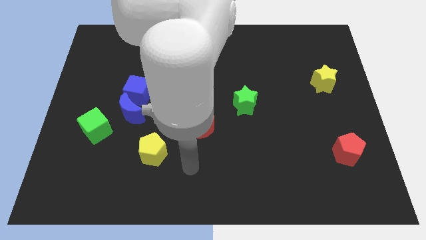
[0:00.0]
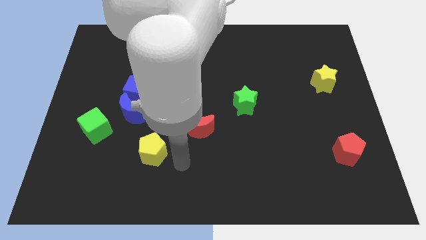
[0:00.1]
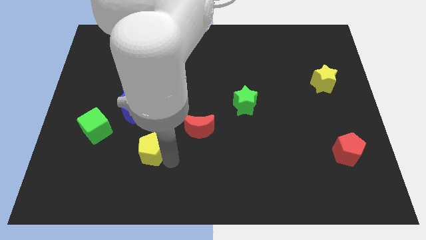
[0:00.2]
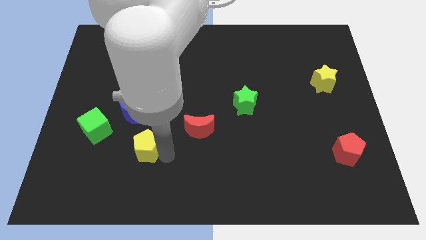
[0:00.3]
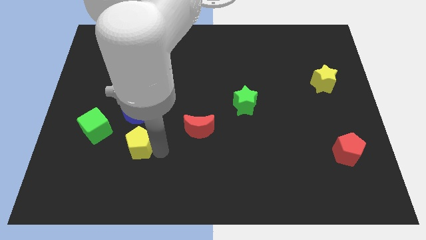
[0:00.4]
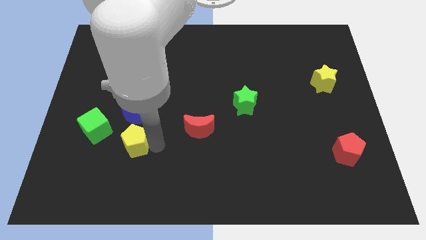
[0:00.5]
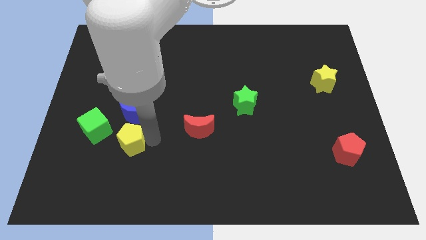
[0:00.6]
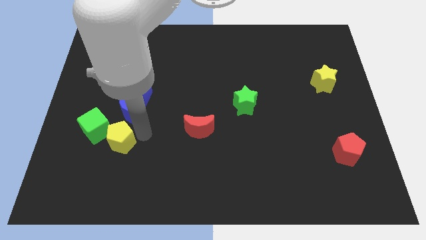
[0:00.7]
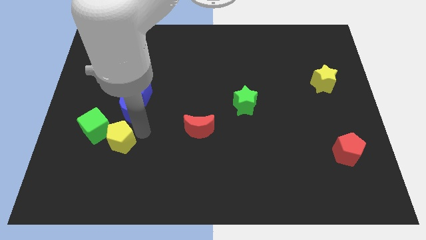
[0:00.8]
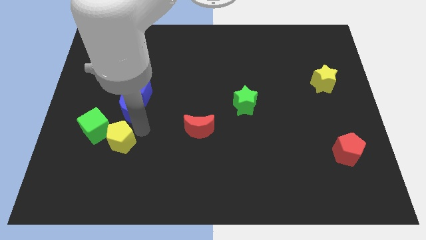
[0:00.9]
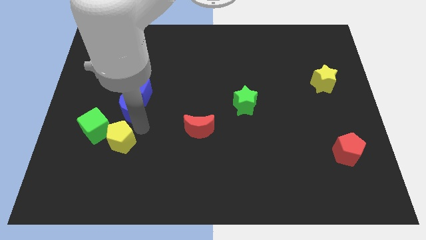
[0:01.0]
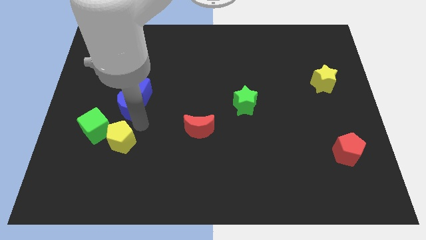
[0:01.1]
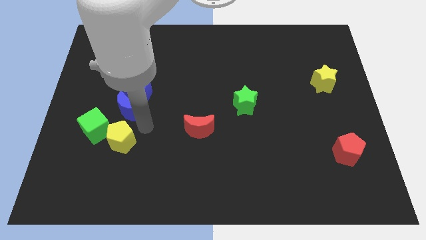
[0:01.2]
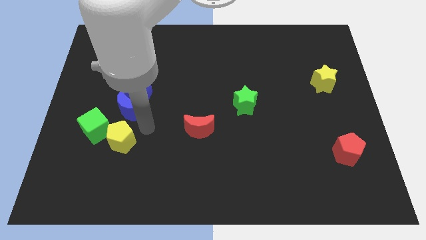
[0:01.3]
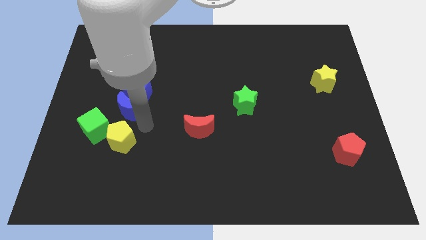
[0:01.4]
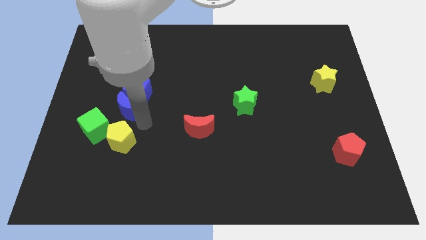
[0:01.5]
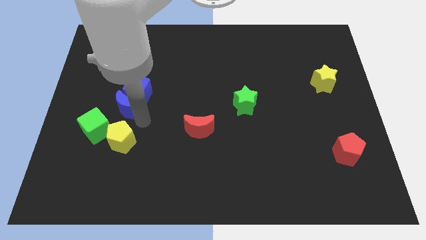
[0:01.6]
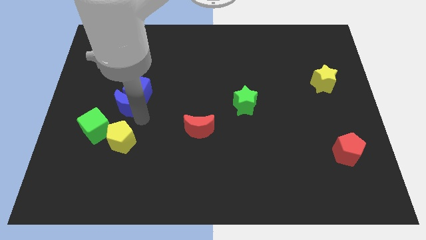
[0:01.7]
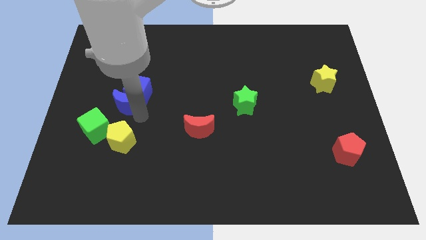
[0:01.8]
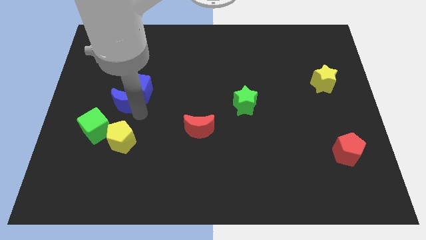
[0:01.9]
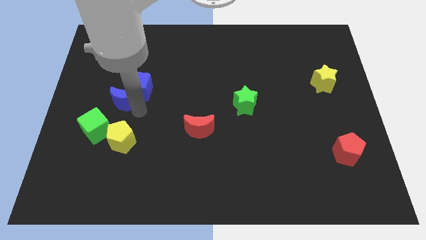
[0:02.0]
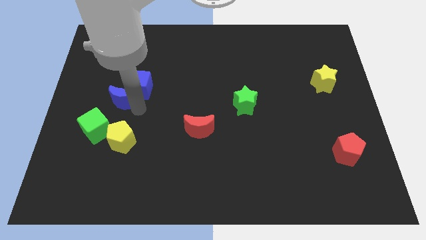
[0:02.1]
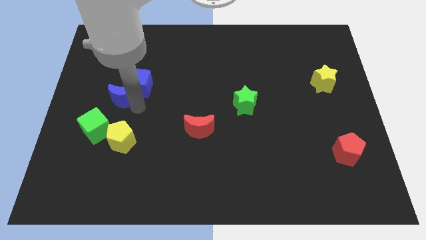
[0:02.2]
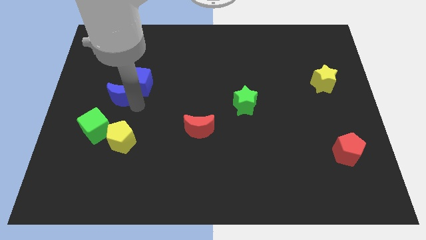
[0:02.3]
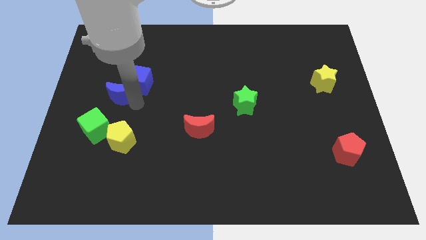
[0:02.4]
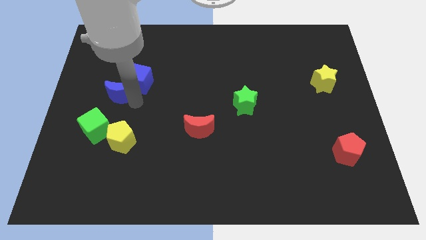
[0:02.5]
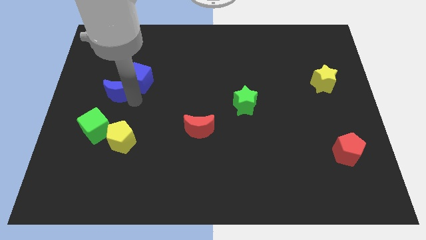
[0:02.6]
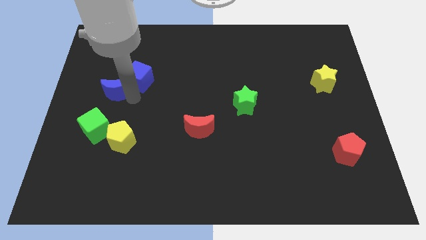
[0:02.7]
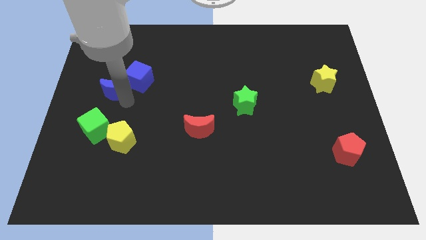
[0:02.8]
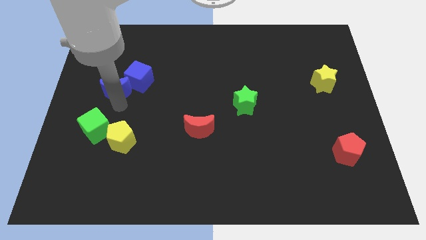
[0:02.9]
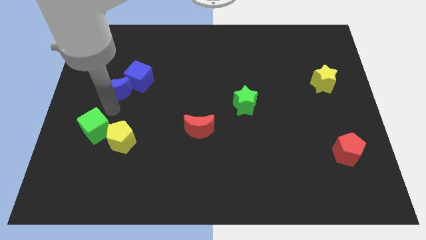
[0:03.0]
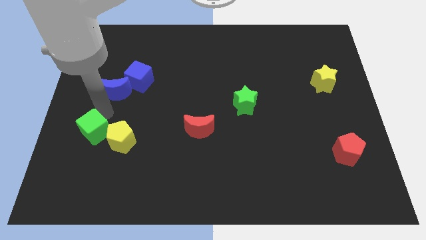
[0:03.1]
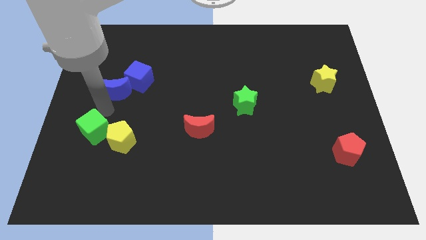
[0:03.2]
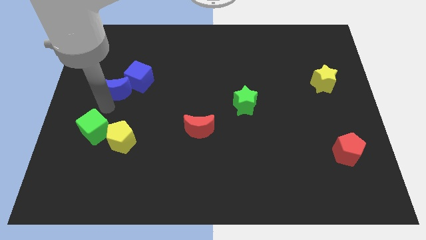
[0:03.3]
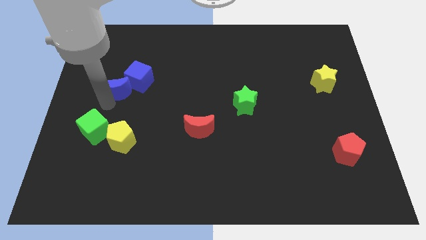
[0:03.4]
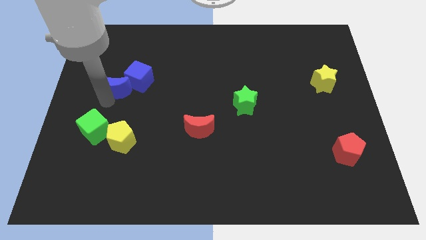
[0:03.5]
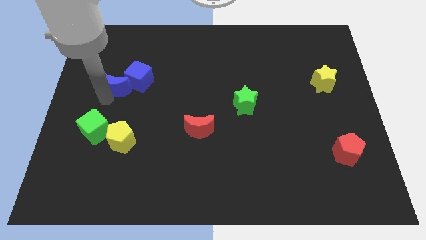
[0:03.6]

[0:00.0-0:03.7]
push the blue moon a bit up

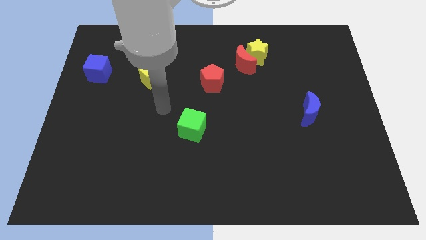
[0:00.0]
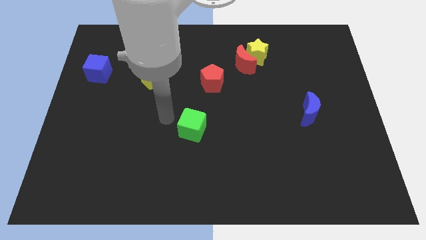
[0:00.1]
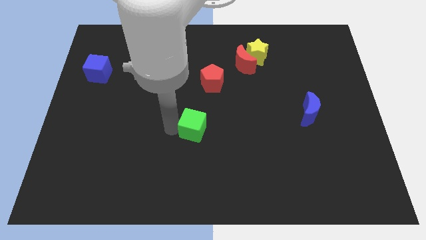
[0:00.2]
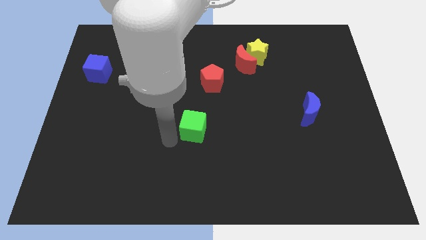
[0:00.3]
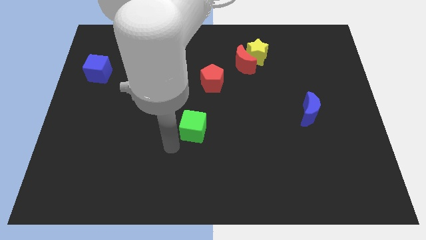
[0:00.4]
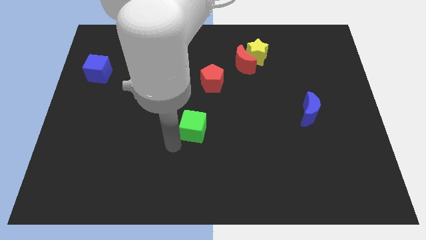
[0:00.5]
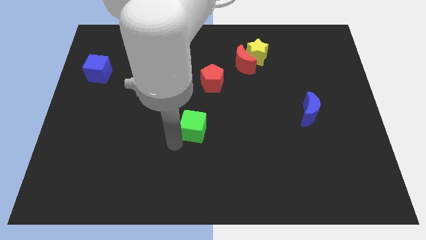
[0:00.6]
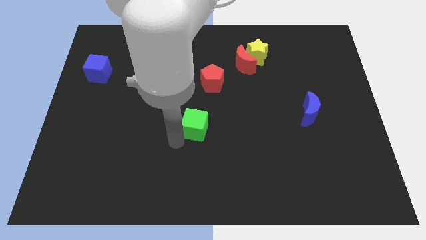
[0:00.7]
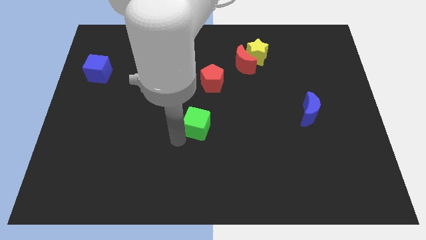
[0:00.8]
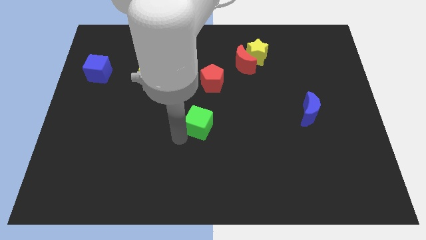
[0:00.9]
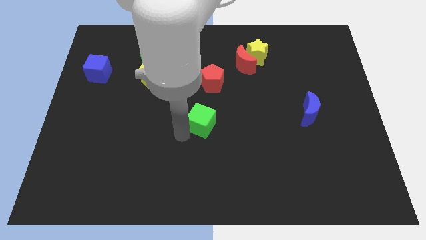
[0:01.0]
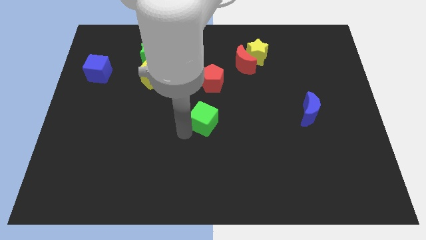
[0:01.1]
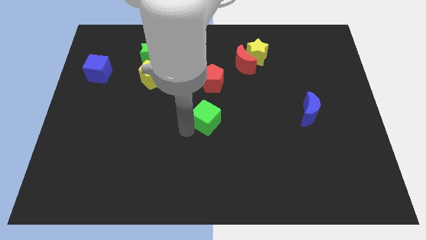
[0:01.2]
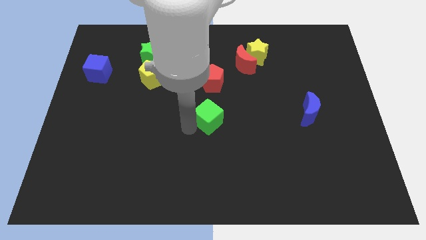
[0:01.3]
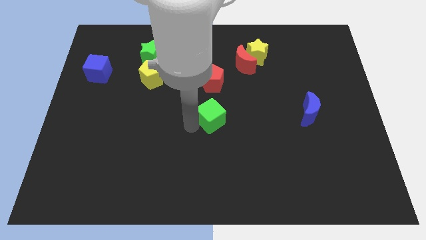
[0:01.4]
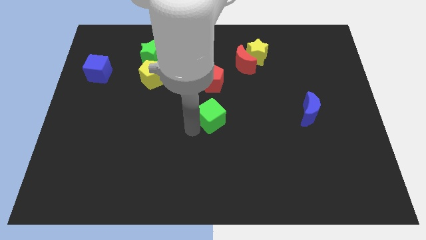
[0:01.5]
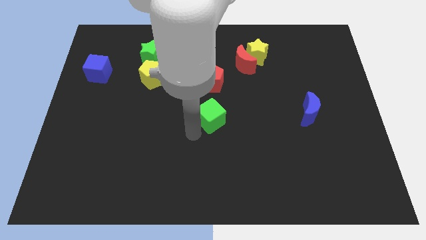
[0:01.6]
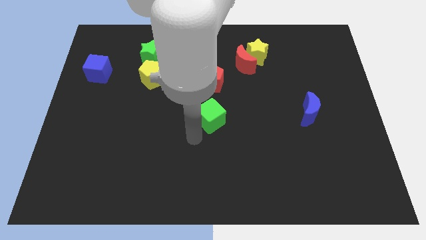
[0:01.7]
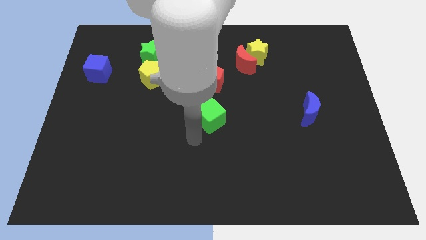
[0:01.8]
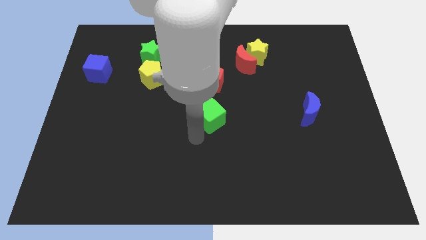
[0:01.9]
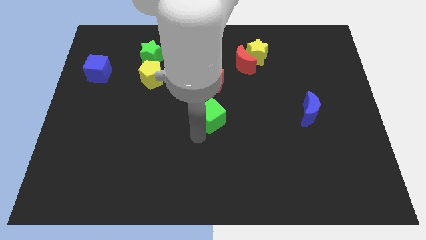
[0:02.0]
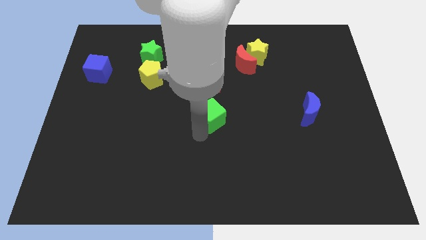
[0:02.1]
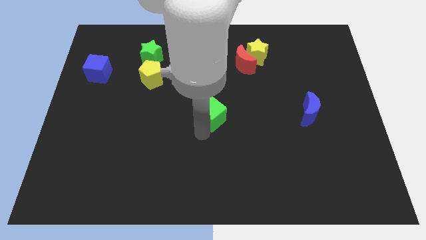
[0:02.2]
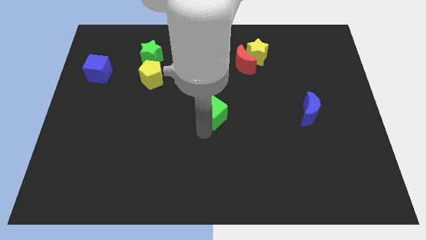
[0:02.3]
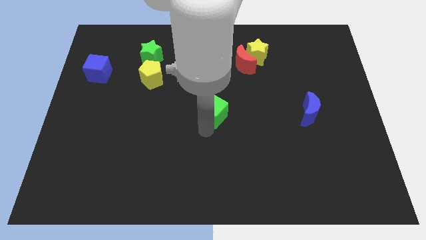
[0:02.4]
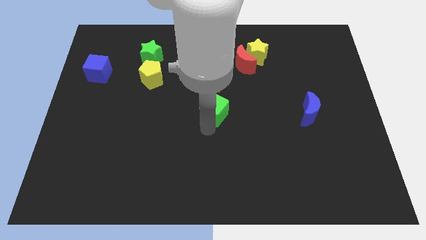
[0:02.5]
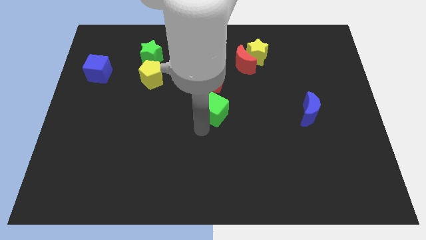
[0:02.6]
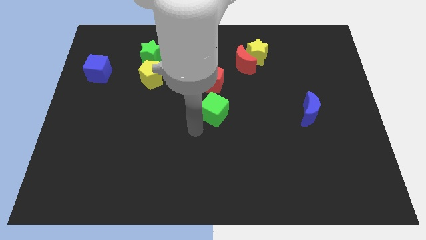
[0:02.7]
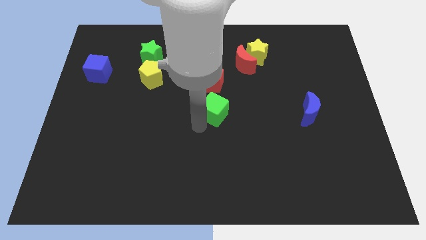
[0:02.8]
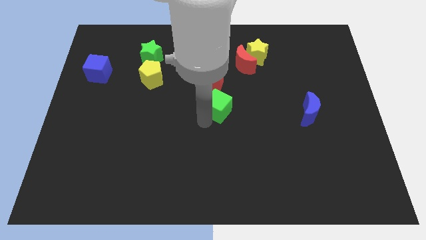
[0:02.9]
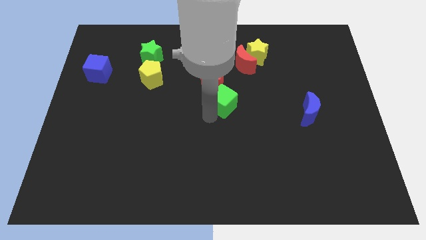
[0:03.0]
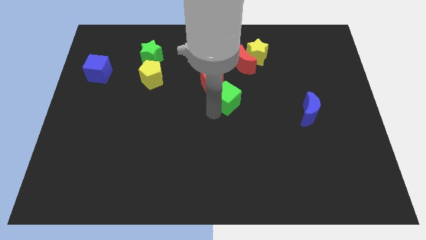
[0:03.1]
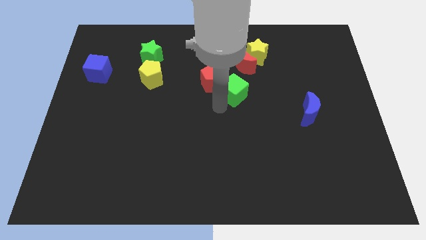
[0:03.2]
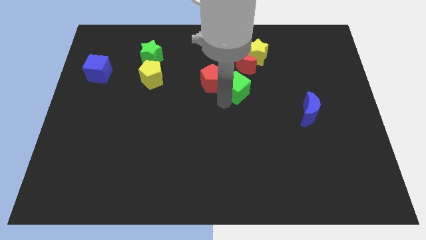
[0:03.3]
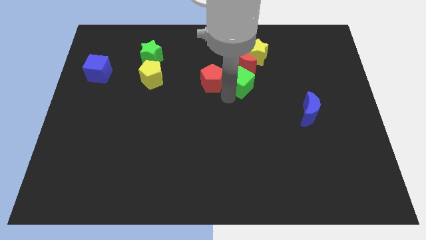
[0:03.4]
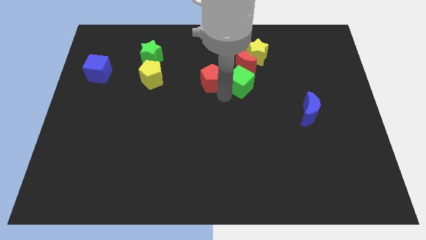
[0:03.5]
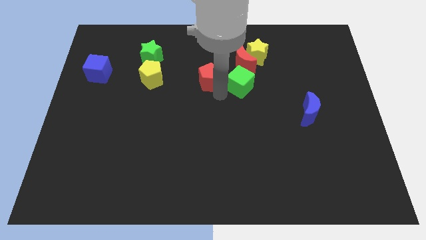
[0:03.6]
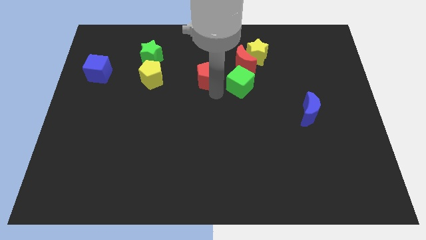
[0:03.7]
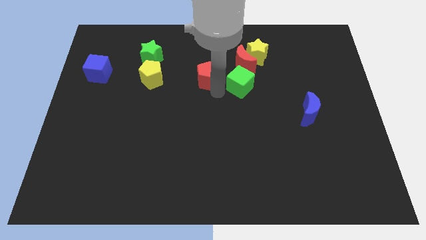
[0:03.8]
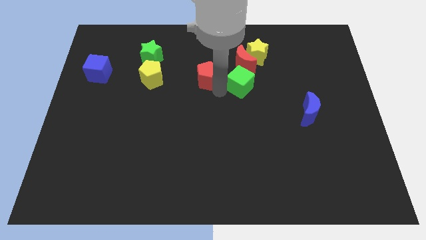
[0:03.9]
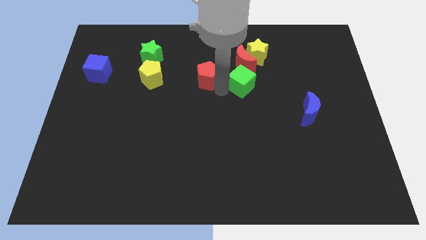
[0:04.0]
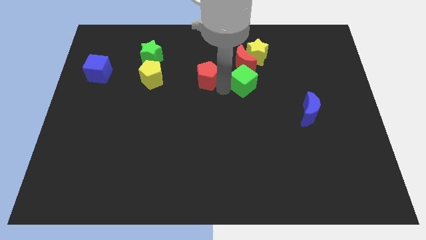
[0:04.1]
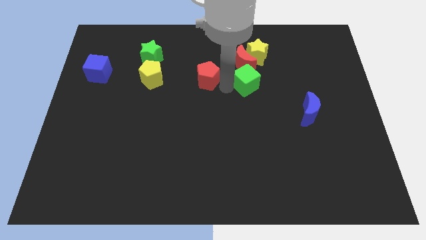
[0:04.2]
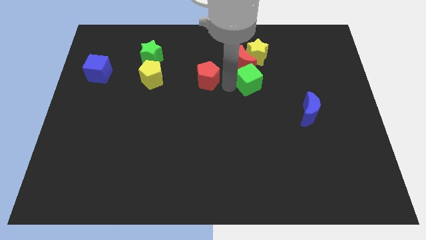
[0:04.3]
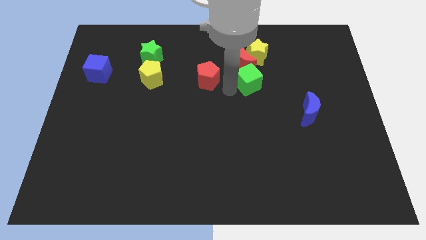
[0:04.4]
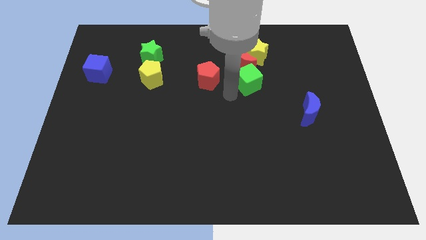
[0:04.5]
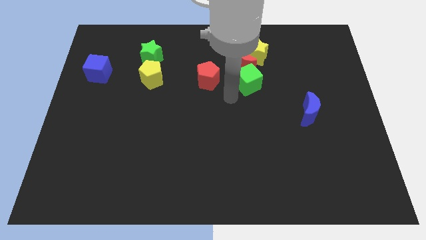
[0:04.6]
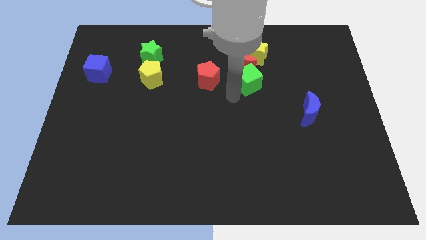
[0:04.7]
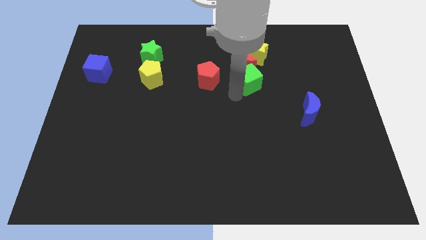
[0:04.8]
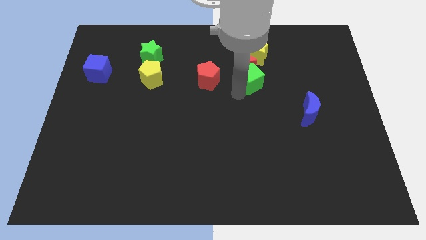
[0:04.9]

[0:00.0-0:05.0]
slide the green cube diagonally upwards and right
